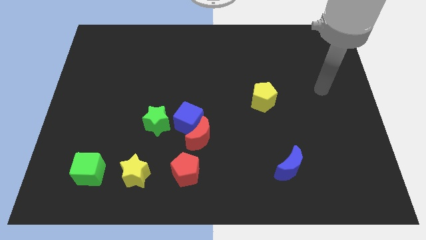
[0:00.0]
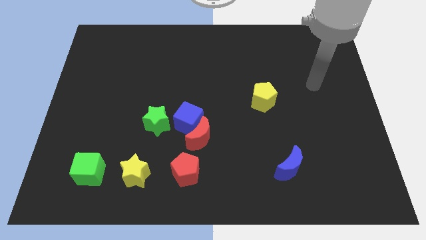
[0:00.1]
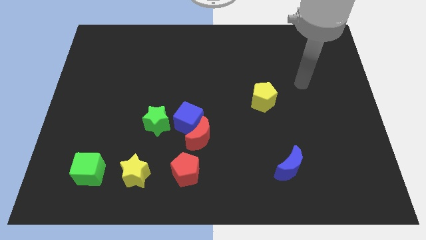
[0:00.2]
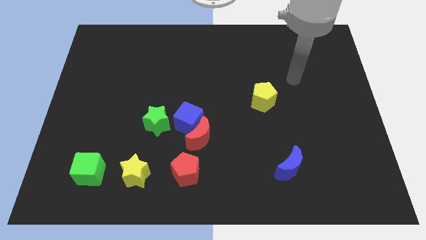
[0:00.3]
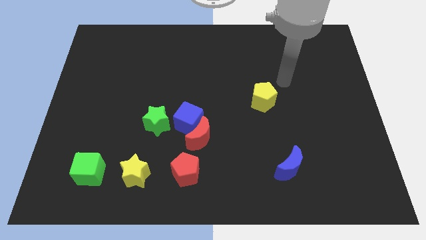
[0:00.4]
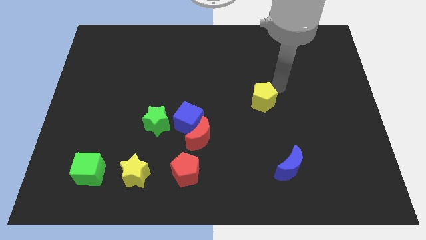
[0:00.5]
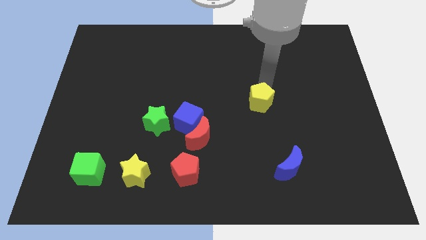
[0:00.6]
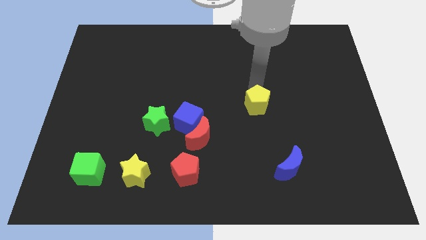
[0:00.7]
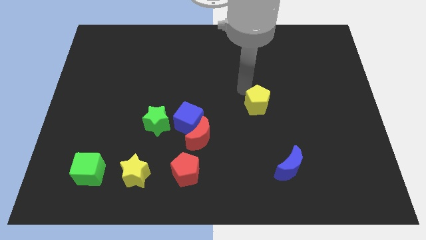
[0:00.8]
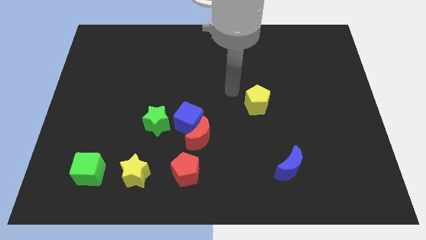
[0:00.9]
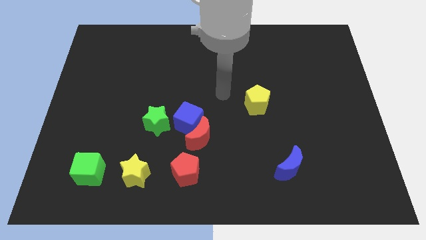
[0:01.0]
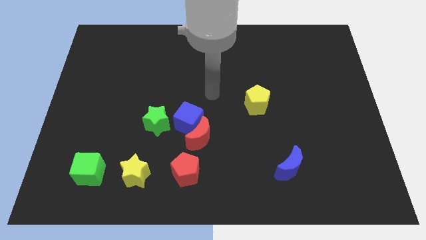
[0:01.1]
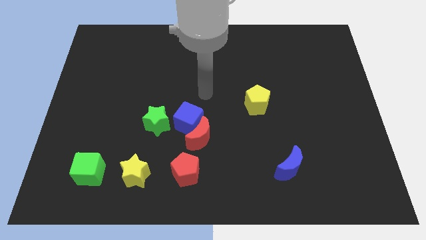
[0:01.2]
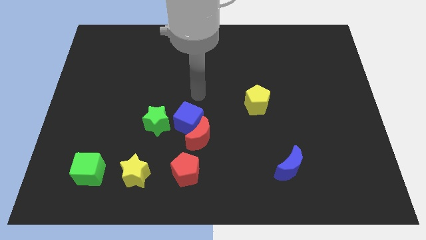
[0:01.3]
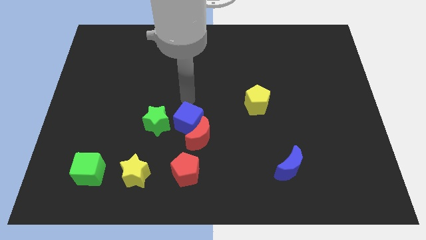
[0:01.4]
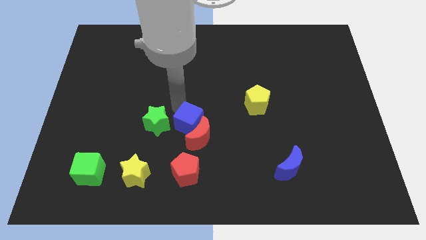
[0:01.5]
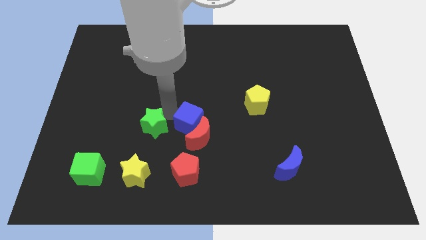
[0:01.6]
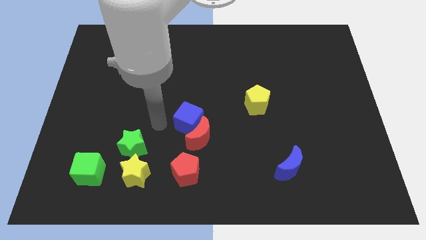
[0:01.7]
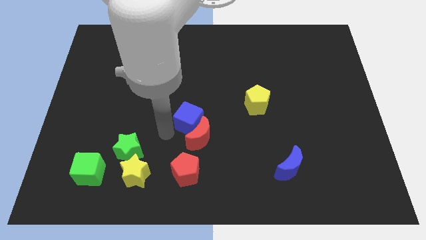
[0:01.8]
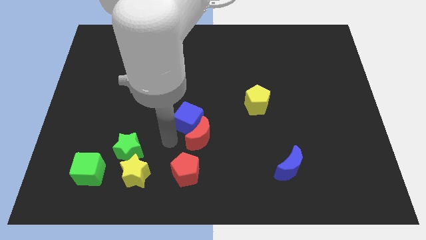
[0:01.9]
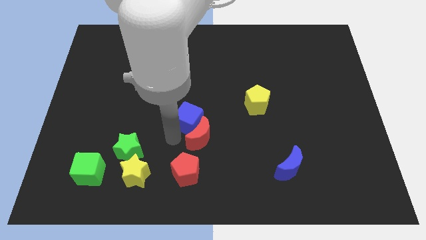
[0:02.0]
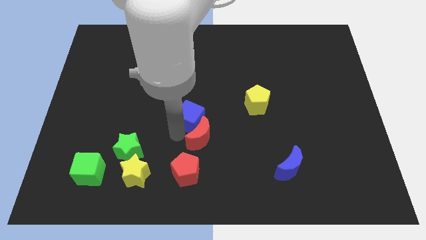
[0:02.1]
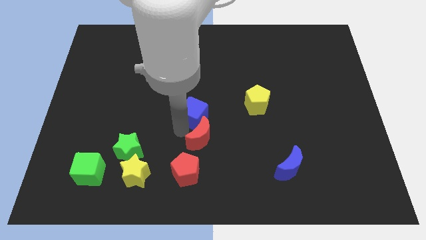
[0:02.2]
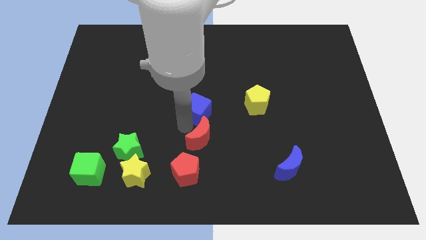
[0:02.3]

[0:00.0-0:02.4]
pull the blue cube apart from the red moon and green star

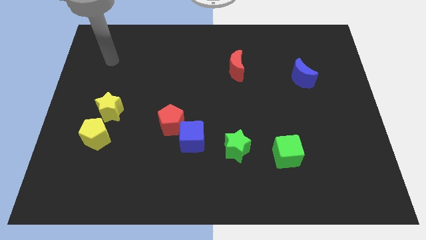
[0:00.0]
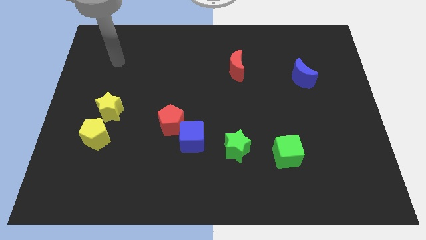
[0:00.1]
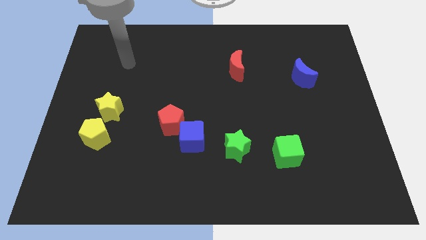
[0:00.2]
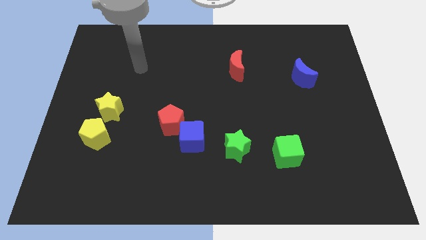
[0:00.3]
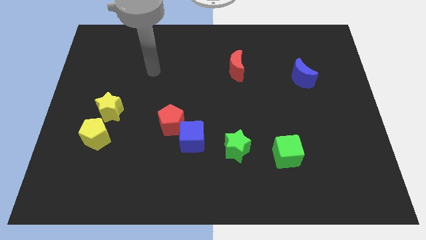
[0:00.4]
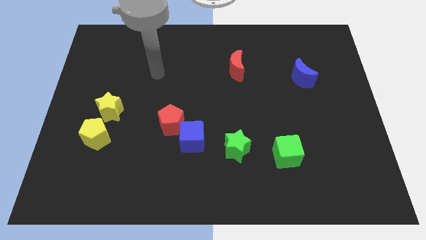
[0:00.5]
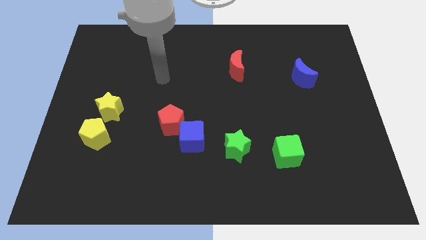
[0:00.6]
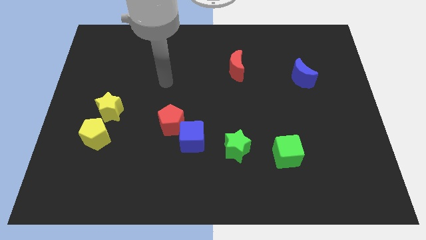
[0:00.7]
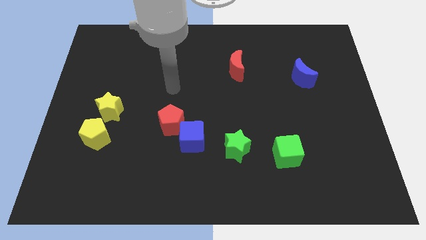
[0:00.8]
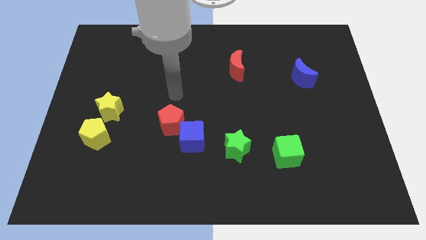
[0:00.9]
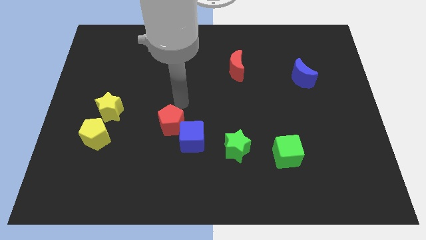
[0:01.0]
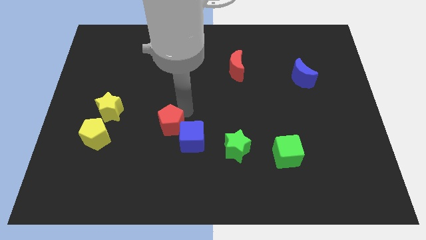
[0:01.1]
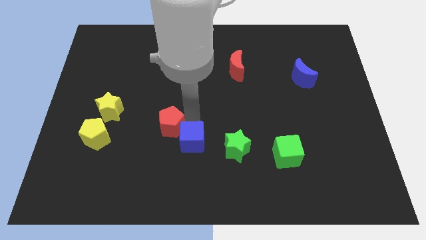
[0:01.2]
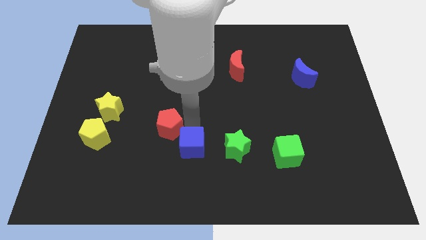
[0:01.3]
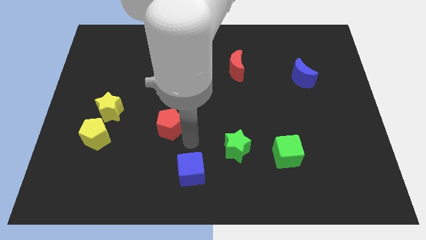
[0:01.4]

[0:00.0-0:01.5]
move the red pentagon away from the blue cube

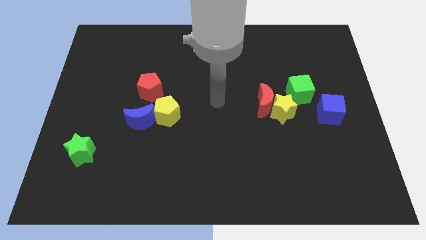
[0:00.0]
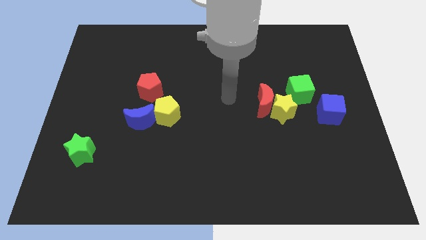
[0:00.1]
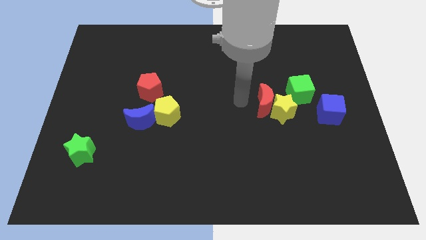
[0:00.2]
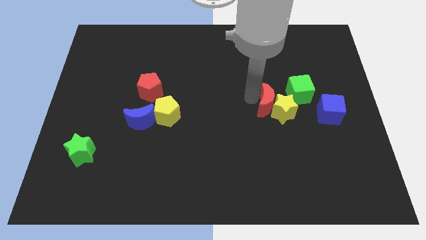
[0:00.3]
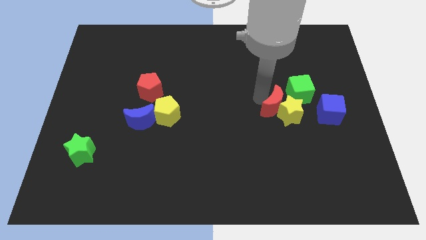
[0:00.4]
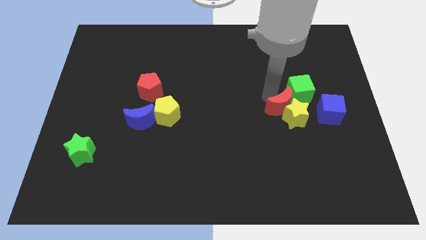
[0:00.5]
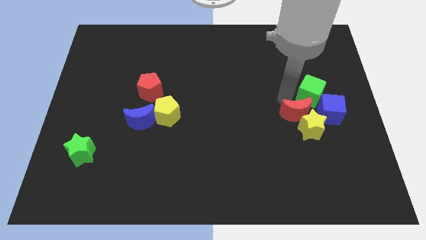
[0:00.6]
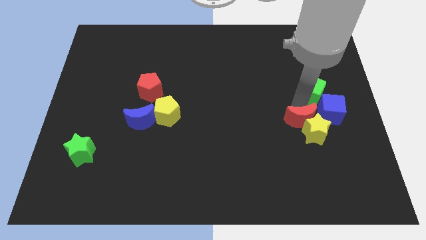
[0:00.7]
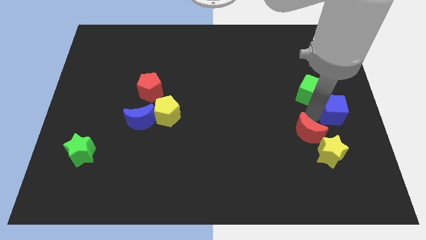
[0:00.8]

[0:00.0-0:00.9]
separate the yellow star from the red moon and green cube

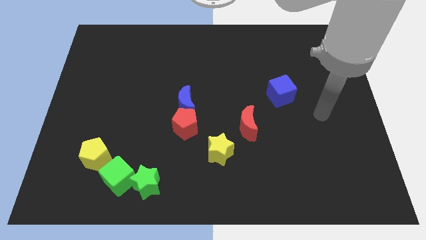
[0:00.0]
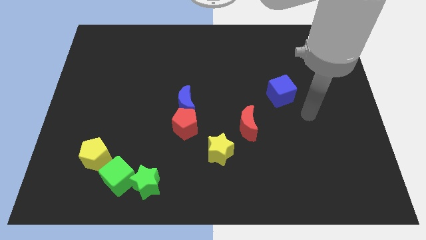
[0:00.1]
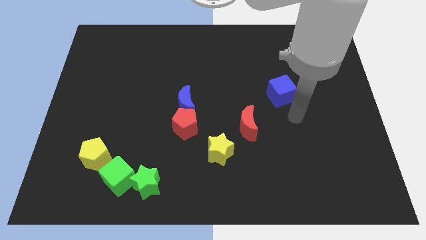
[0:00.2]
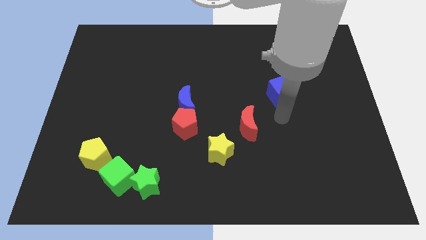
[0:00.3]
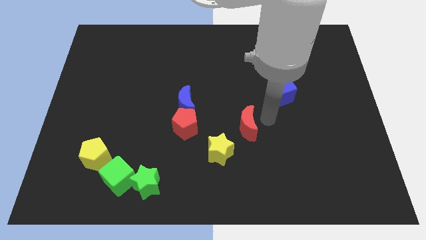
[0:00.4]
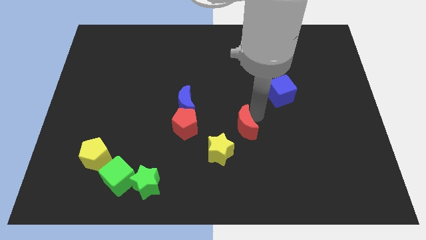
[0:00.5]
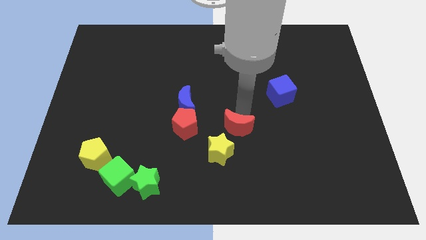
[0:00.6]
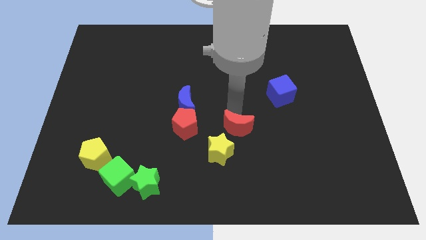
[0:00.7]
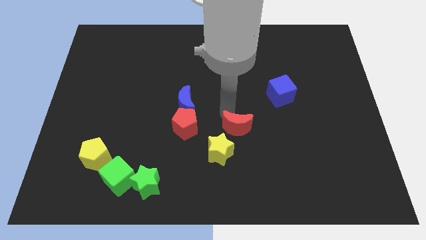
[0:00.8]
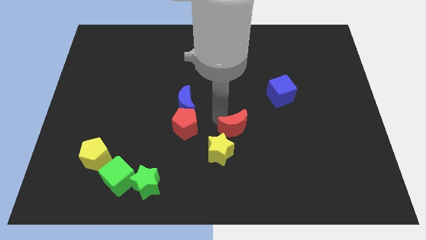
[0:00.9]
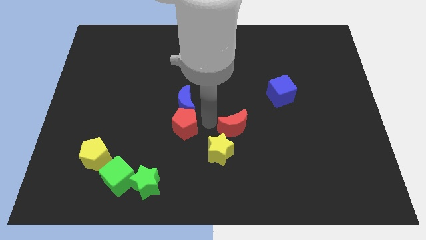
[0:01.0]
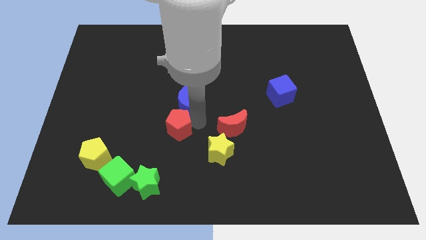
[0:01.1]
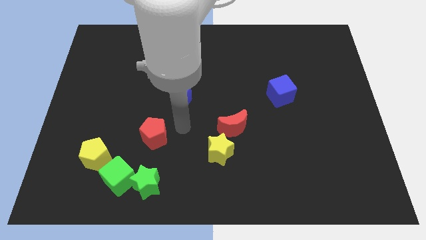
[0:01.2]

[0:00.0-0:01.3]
move the blue moon away from the red pentagon

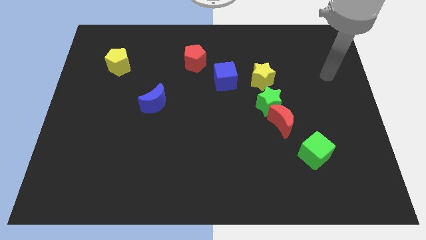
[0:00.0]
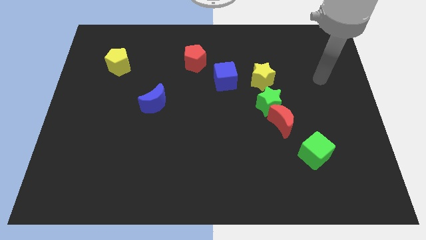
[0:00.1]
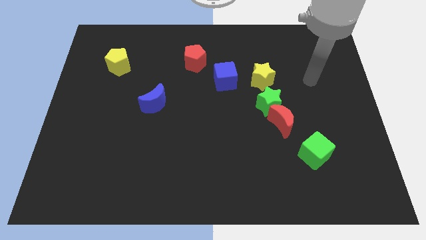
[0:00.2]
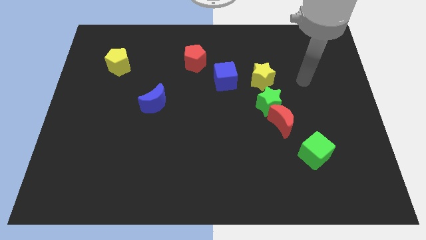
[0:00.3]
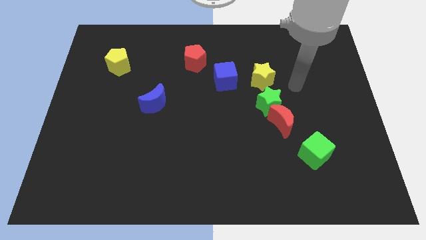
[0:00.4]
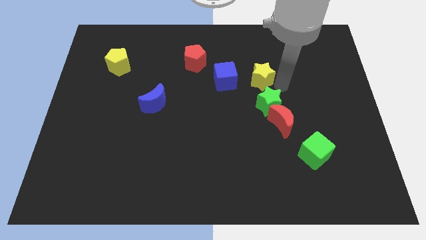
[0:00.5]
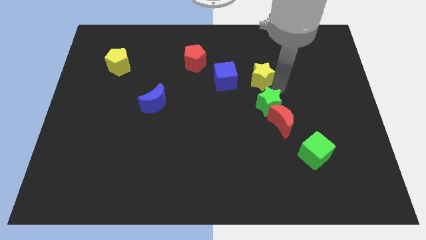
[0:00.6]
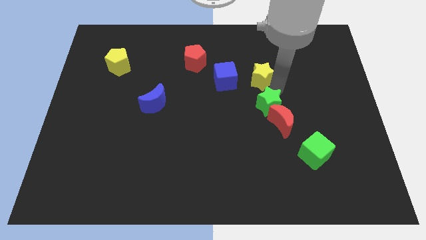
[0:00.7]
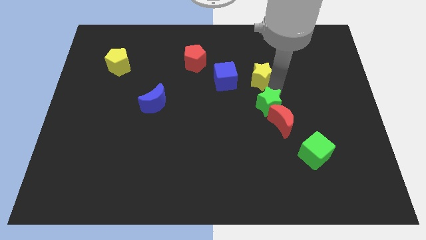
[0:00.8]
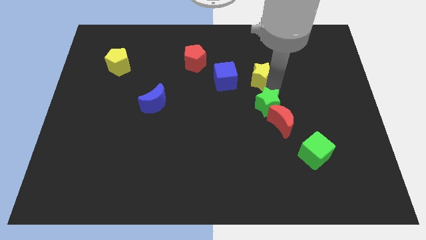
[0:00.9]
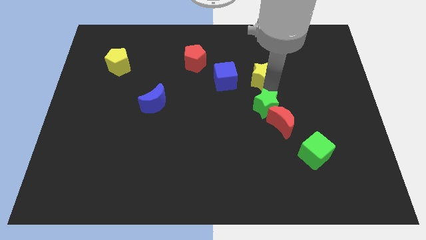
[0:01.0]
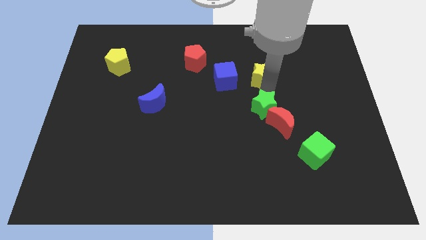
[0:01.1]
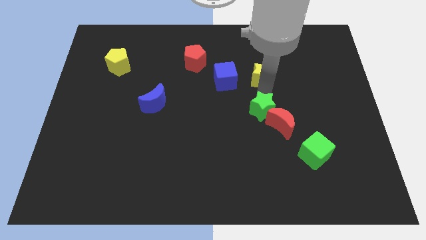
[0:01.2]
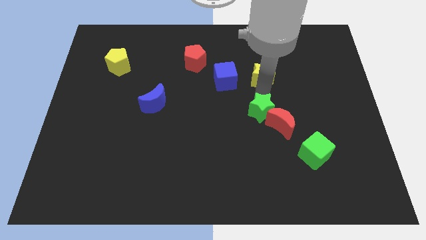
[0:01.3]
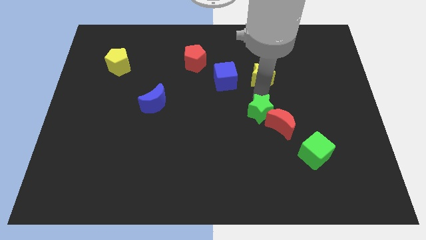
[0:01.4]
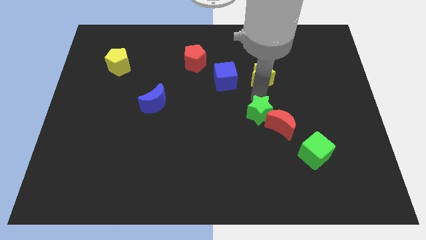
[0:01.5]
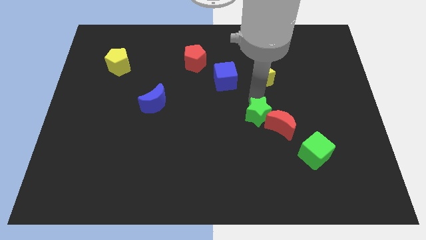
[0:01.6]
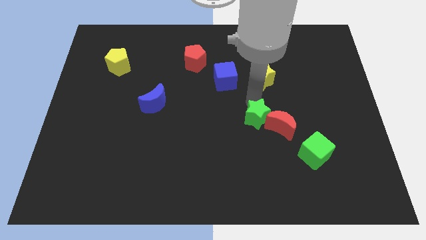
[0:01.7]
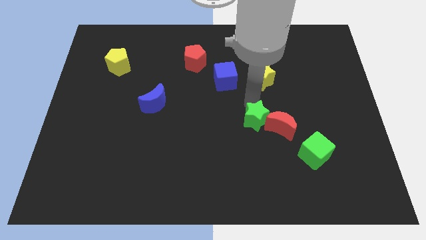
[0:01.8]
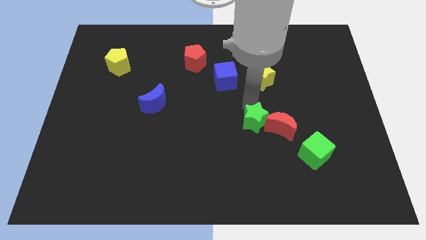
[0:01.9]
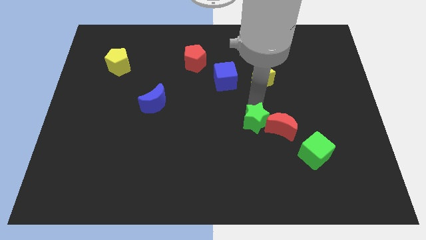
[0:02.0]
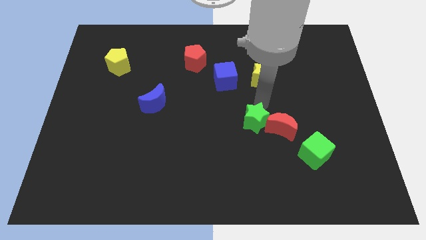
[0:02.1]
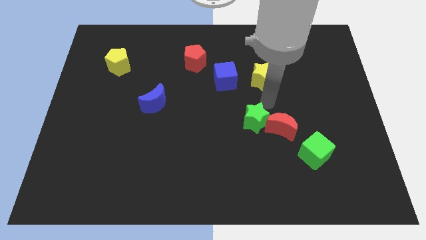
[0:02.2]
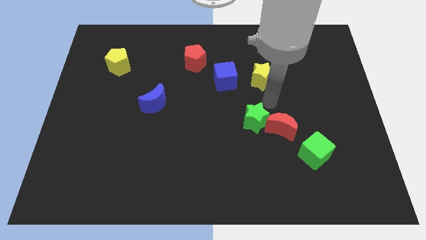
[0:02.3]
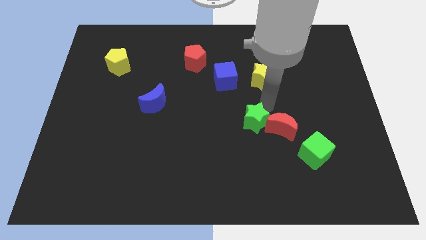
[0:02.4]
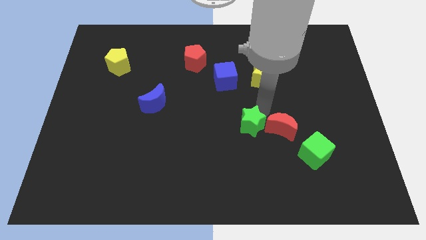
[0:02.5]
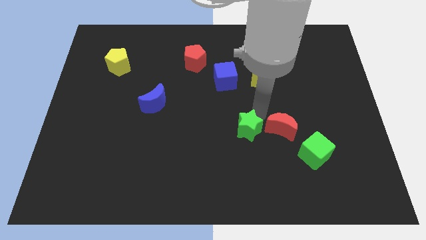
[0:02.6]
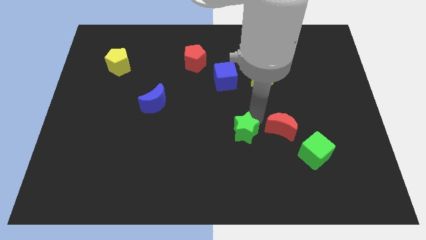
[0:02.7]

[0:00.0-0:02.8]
separate the green star from the red moon and yellow star

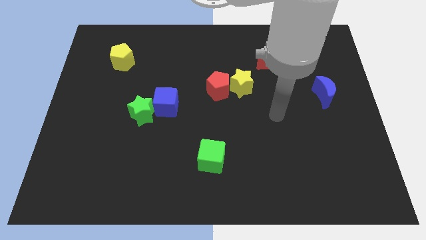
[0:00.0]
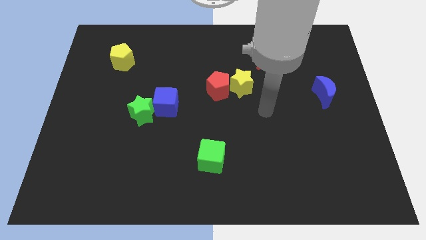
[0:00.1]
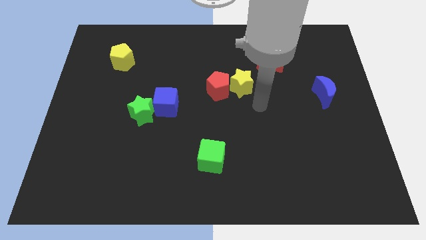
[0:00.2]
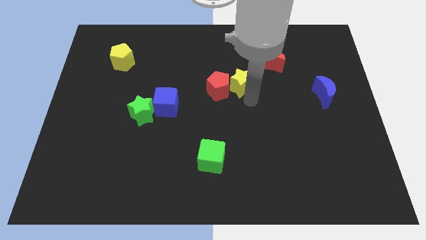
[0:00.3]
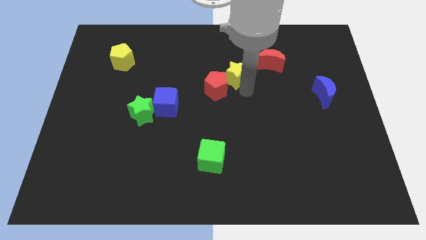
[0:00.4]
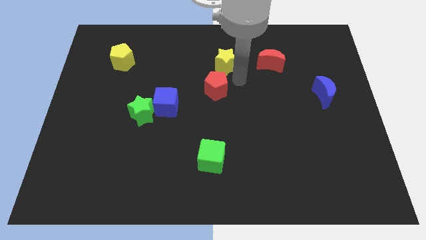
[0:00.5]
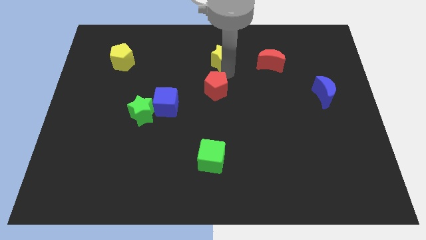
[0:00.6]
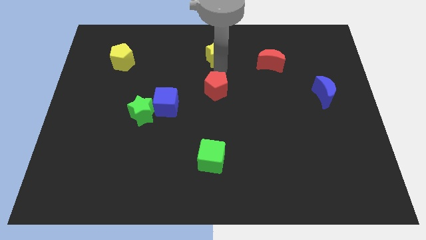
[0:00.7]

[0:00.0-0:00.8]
pull the red pentagon apart from the yellow star
